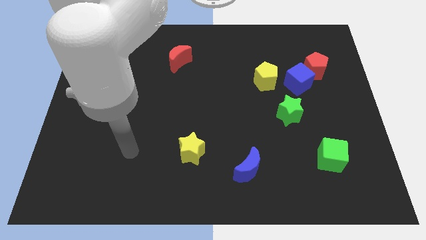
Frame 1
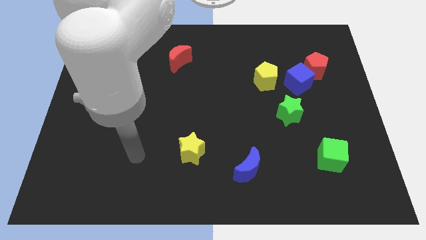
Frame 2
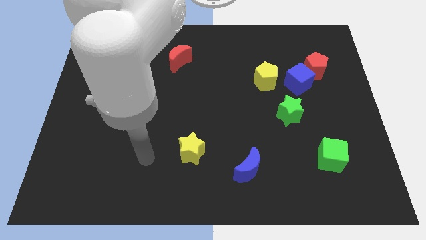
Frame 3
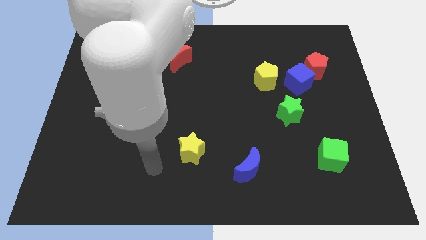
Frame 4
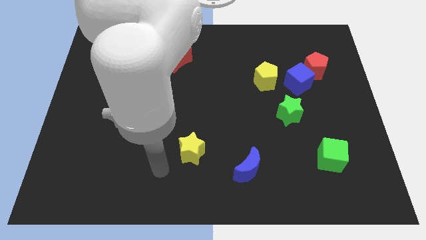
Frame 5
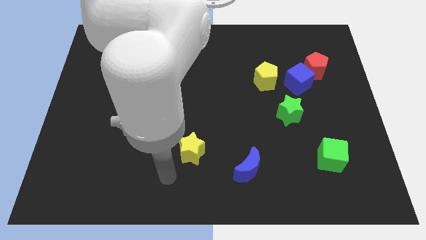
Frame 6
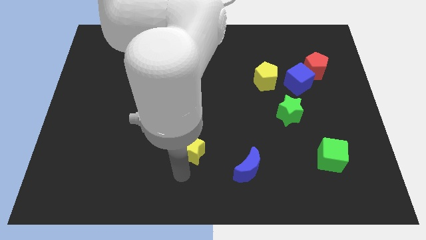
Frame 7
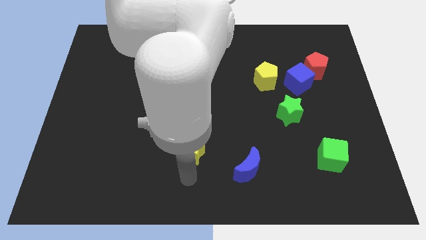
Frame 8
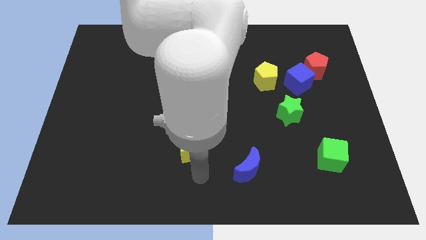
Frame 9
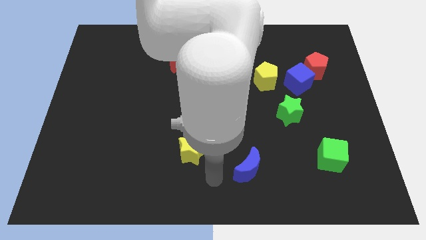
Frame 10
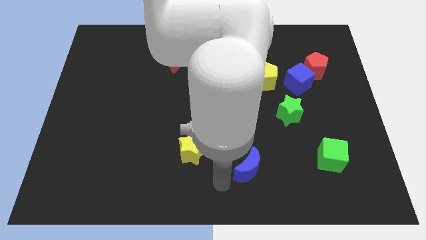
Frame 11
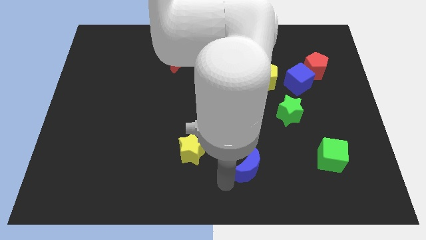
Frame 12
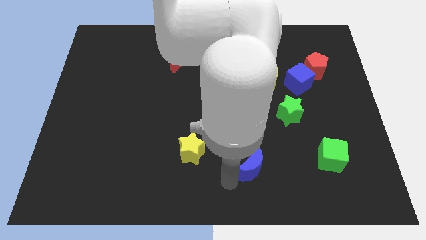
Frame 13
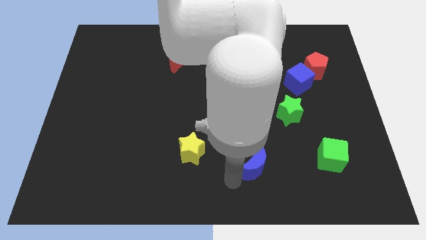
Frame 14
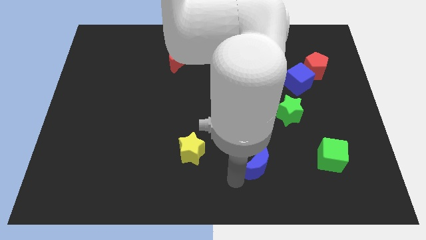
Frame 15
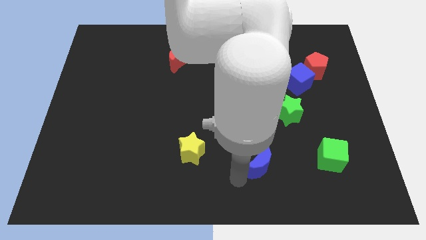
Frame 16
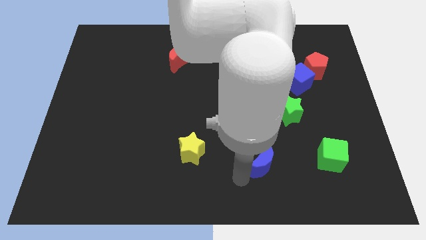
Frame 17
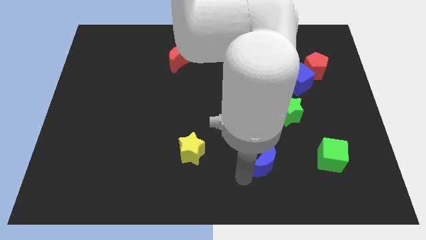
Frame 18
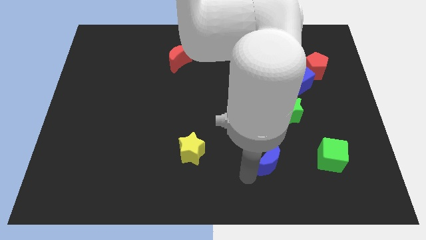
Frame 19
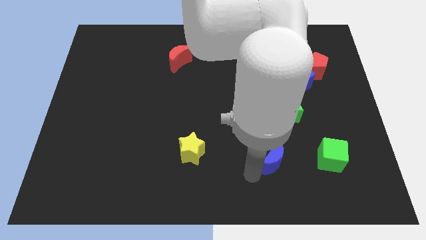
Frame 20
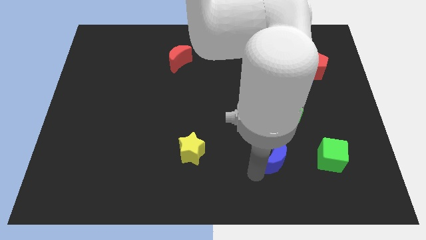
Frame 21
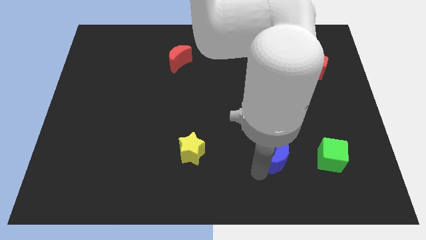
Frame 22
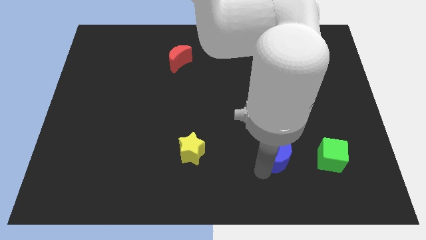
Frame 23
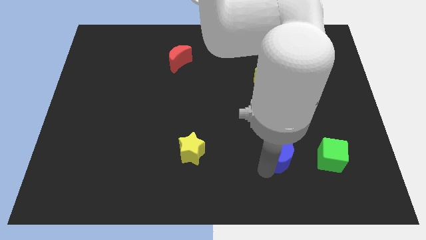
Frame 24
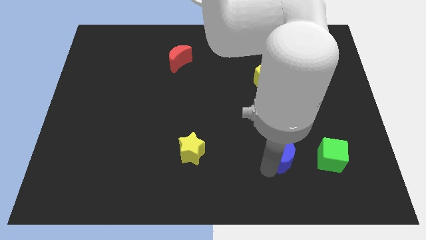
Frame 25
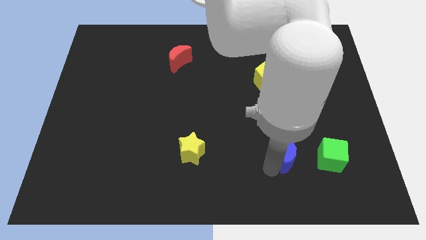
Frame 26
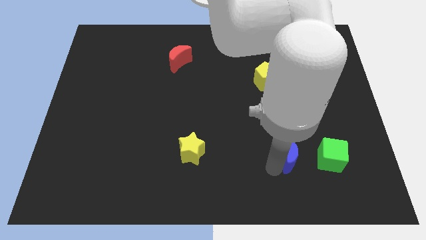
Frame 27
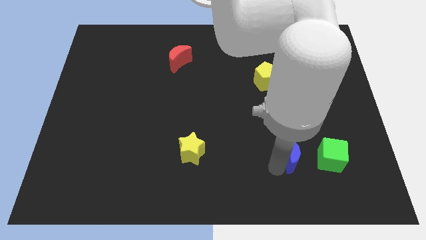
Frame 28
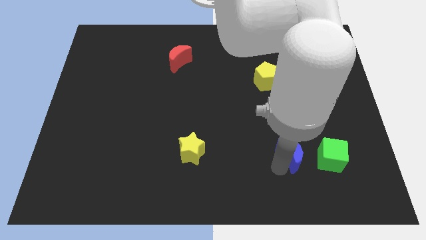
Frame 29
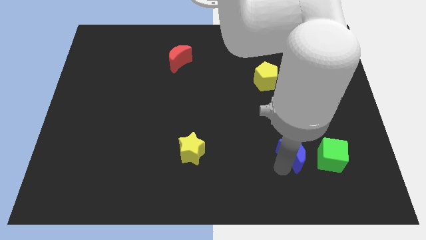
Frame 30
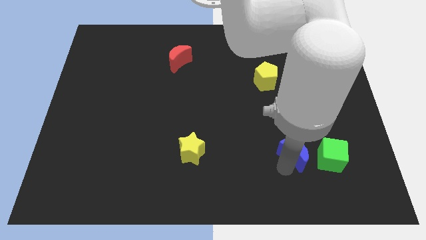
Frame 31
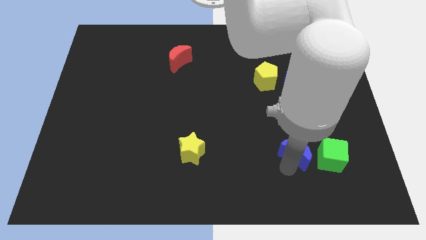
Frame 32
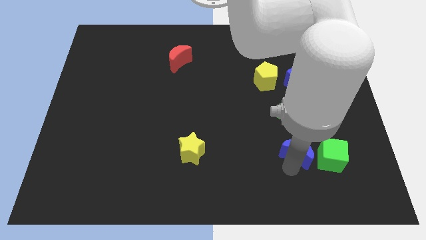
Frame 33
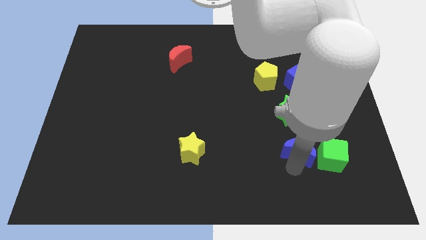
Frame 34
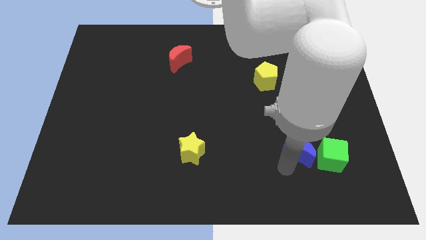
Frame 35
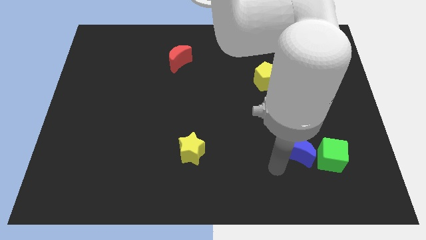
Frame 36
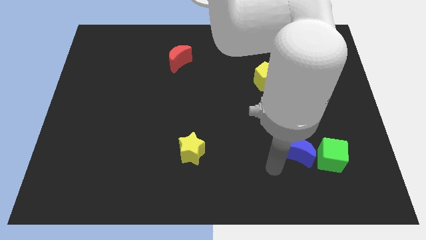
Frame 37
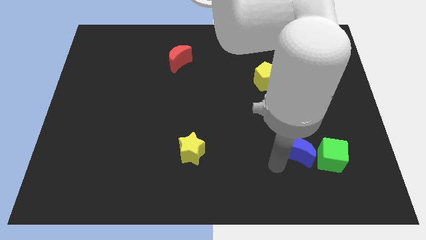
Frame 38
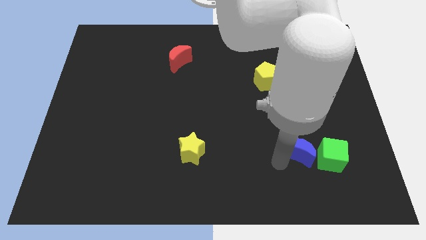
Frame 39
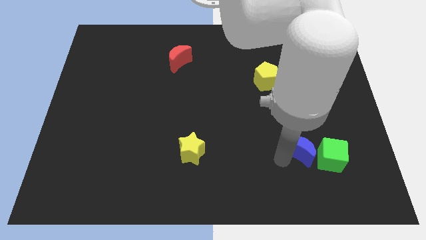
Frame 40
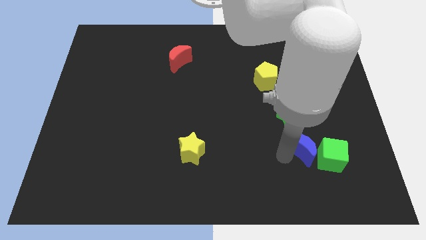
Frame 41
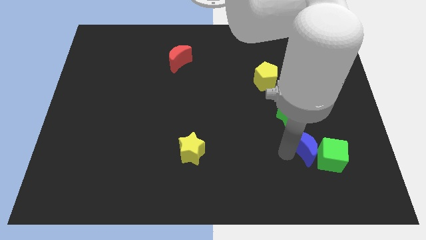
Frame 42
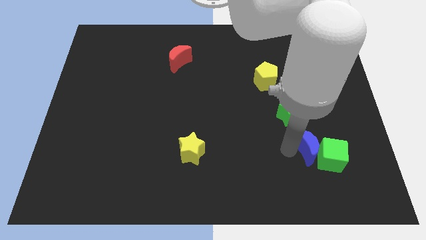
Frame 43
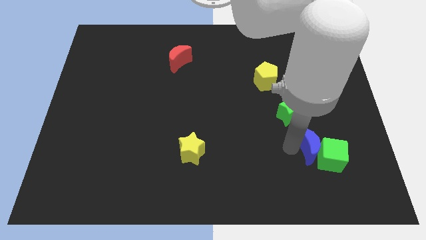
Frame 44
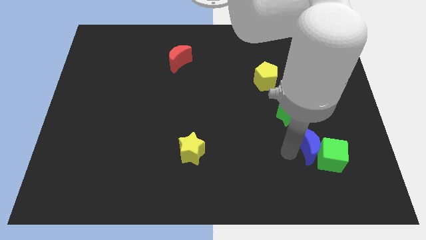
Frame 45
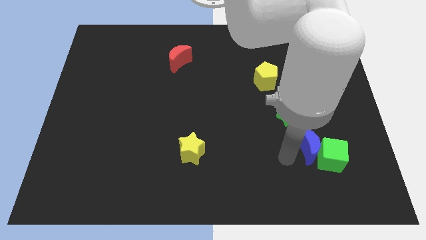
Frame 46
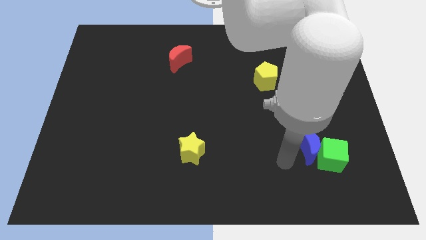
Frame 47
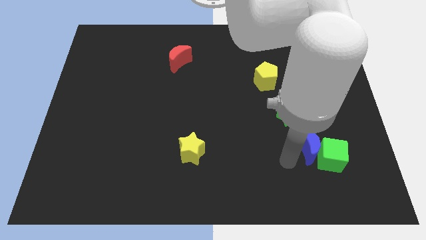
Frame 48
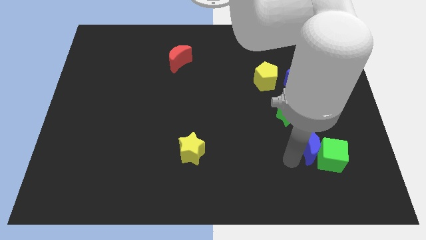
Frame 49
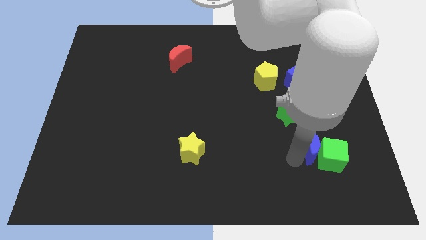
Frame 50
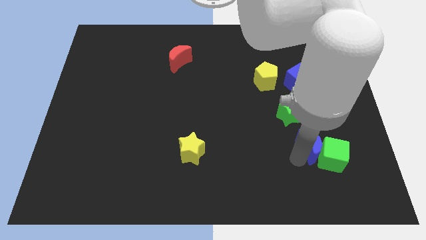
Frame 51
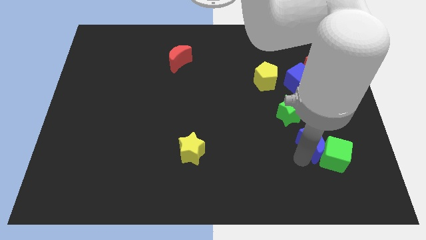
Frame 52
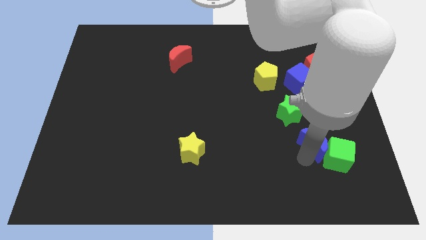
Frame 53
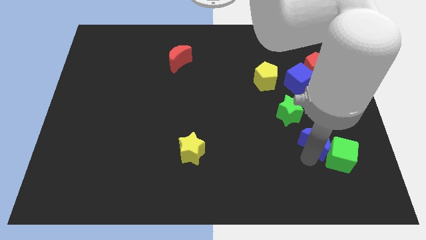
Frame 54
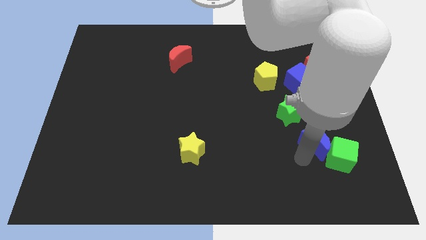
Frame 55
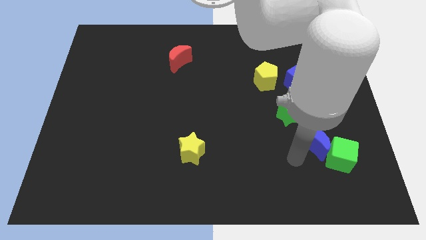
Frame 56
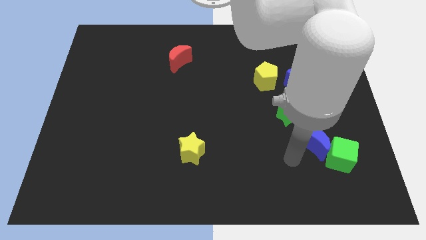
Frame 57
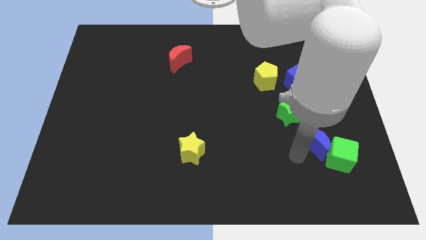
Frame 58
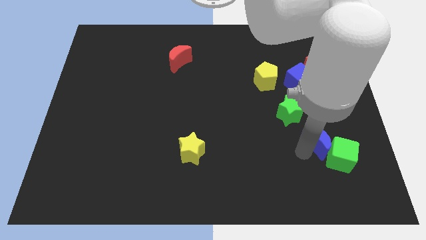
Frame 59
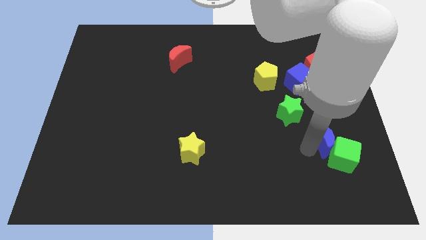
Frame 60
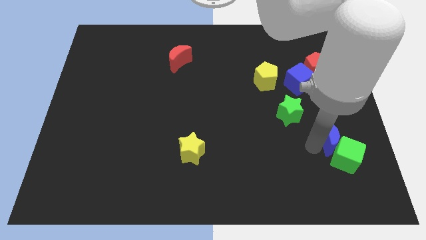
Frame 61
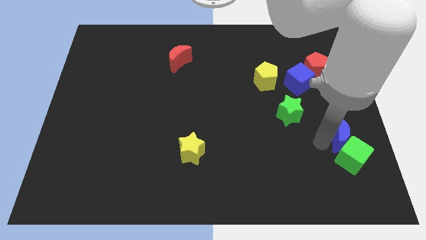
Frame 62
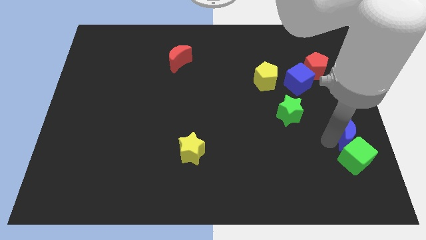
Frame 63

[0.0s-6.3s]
put the blue moon to the right side of the board
